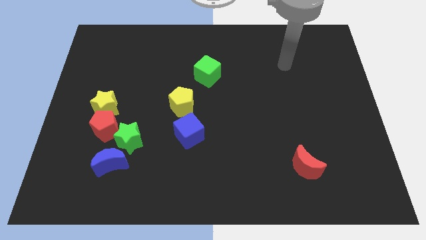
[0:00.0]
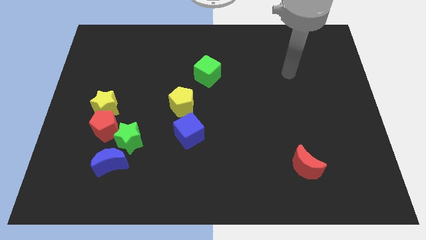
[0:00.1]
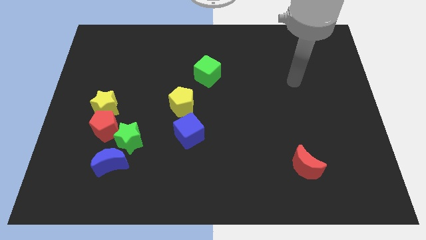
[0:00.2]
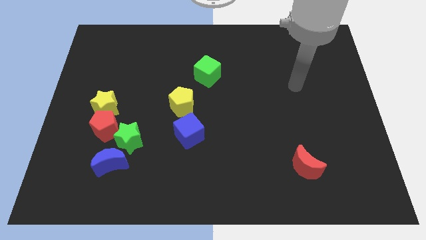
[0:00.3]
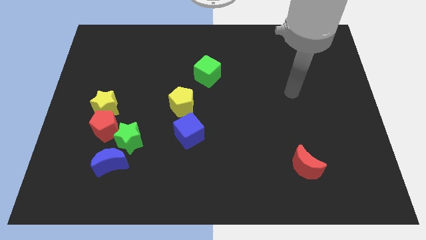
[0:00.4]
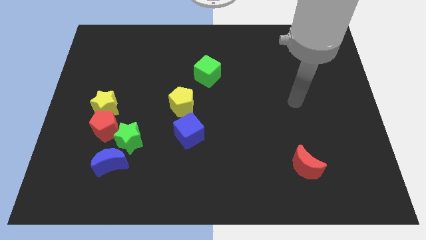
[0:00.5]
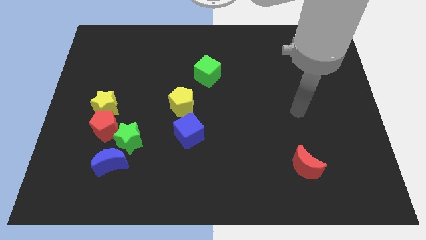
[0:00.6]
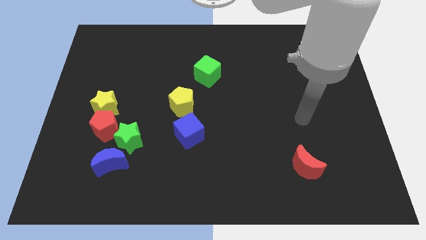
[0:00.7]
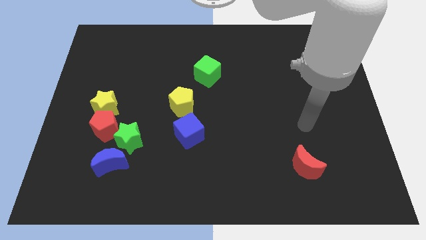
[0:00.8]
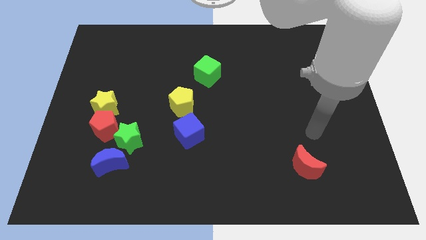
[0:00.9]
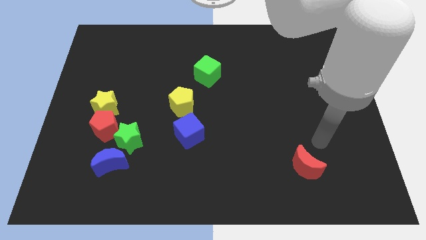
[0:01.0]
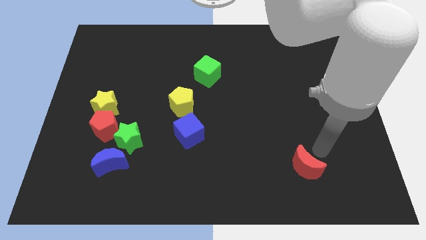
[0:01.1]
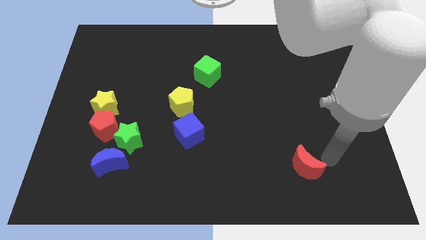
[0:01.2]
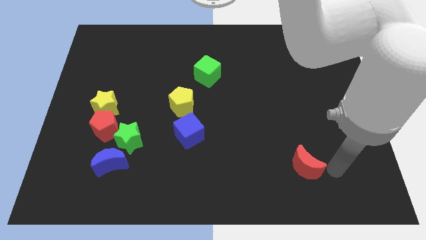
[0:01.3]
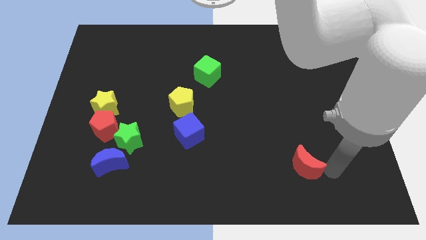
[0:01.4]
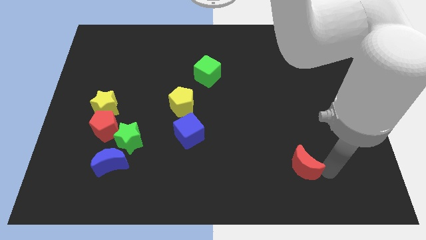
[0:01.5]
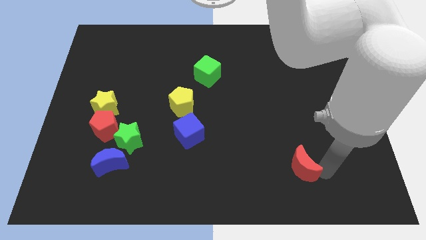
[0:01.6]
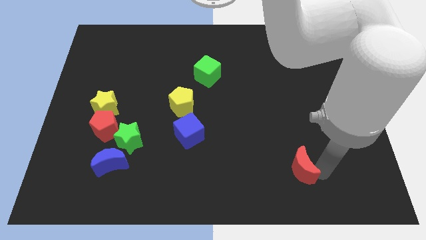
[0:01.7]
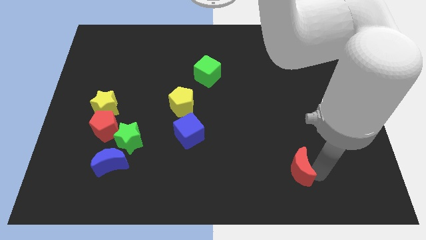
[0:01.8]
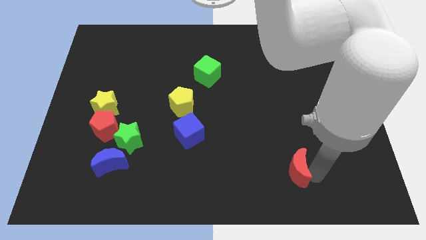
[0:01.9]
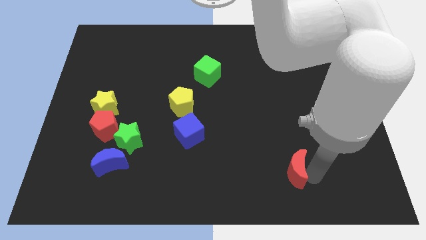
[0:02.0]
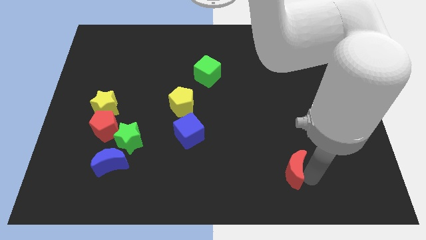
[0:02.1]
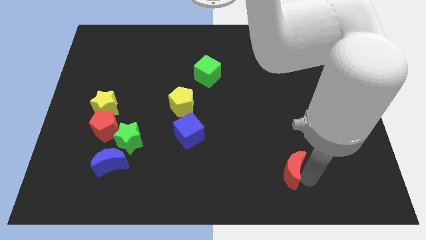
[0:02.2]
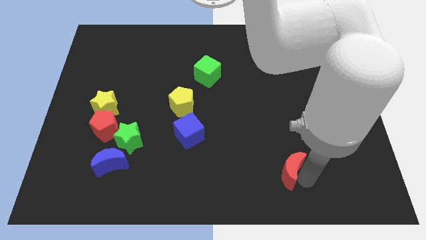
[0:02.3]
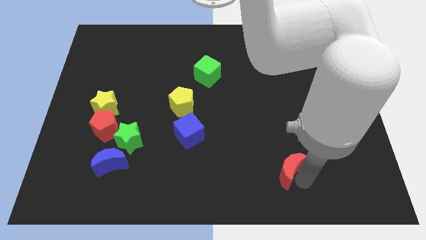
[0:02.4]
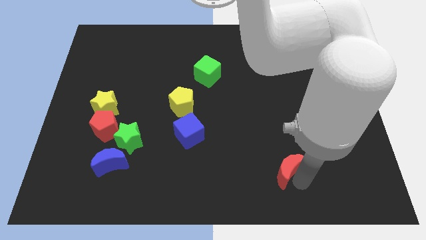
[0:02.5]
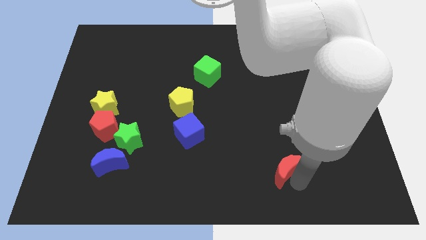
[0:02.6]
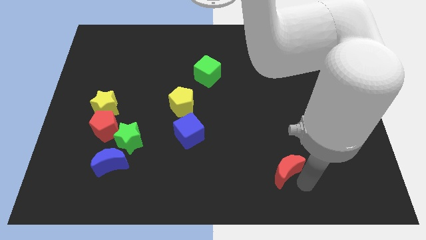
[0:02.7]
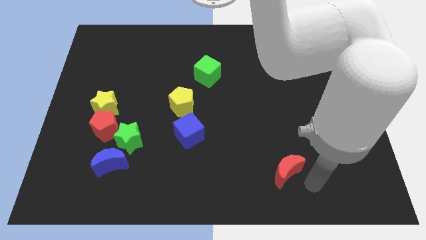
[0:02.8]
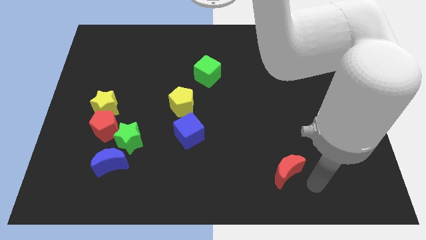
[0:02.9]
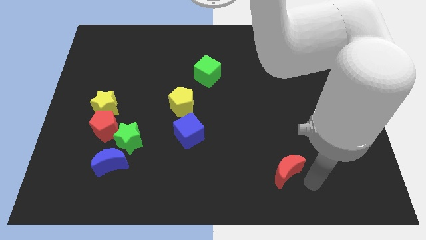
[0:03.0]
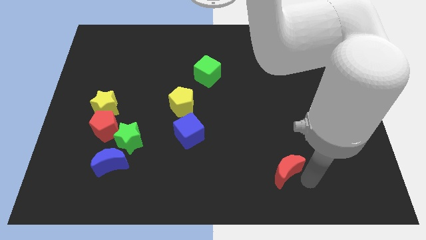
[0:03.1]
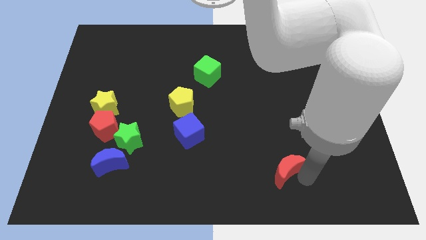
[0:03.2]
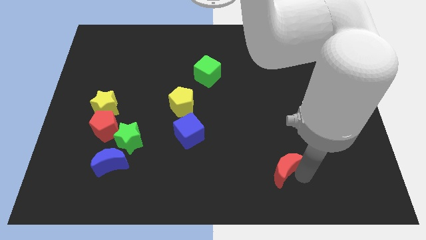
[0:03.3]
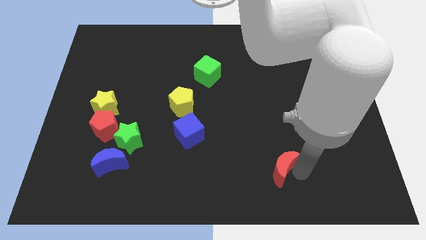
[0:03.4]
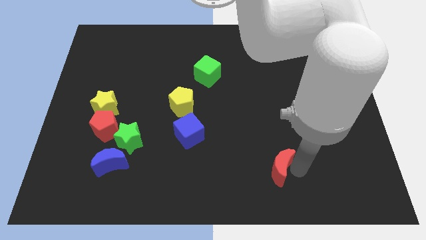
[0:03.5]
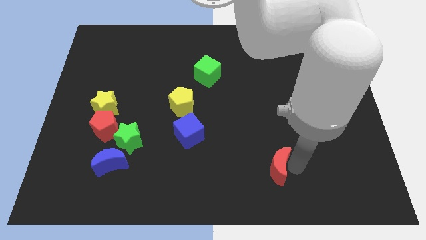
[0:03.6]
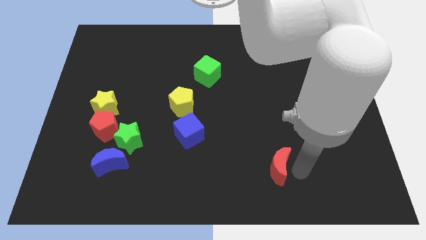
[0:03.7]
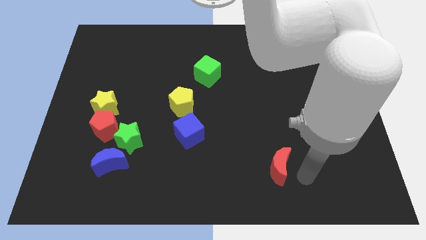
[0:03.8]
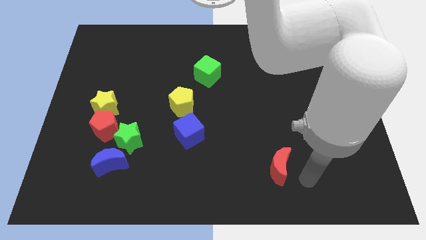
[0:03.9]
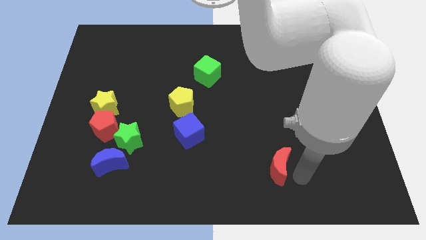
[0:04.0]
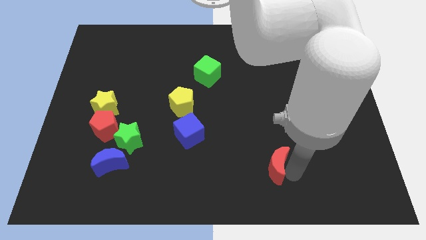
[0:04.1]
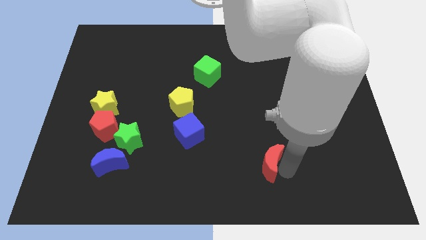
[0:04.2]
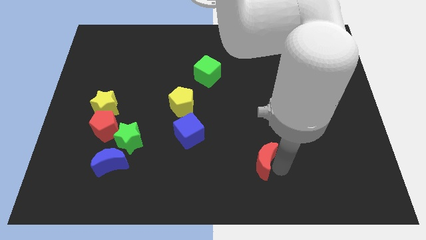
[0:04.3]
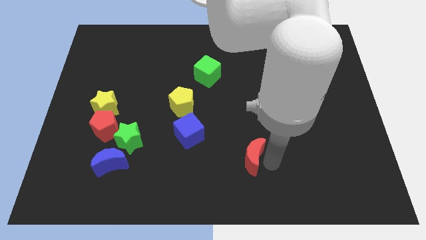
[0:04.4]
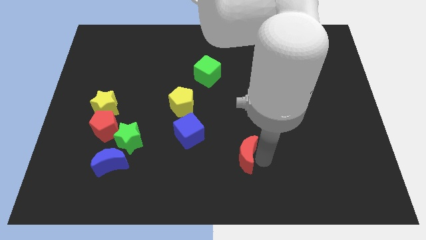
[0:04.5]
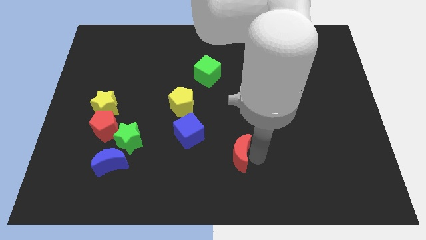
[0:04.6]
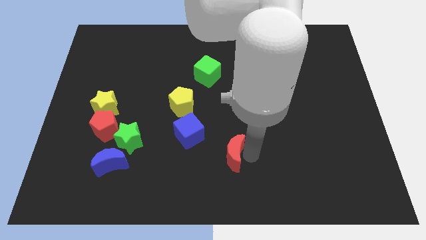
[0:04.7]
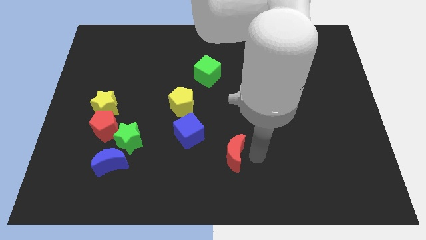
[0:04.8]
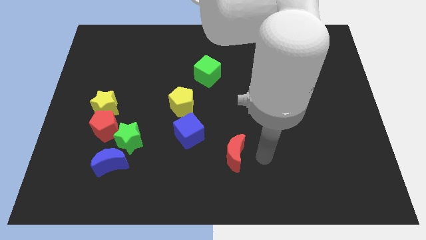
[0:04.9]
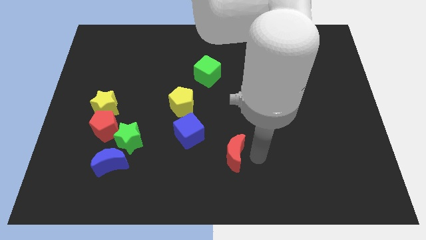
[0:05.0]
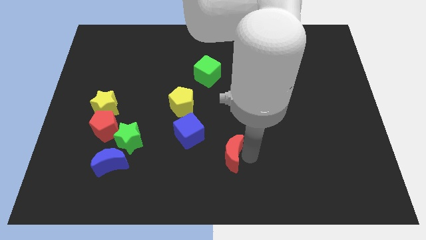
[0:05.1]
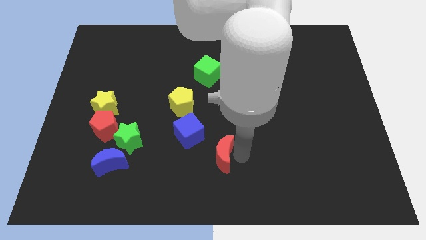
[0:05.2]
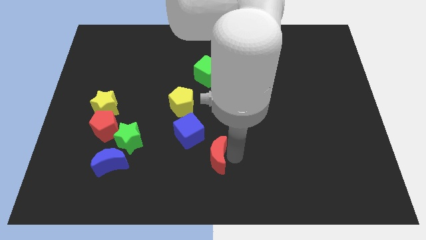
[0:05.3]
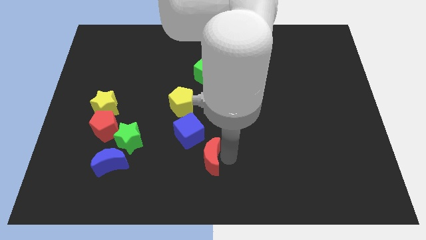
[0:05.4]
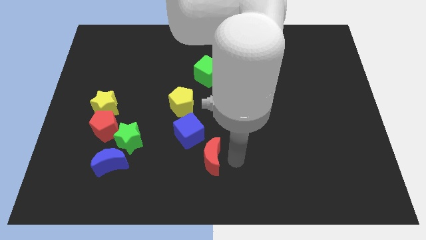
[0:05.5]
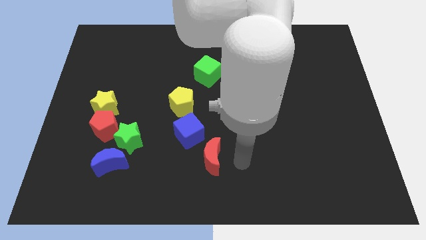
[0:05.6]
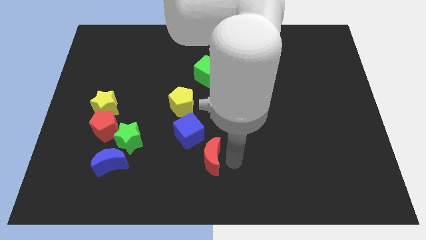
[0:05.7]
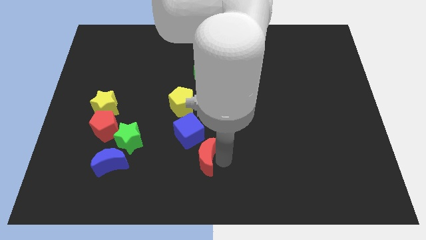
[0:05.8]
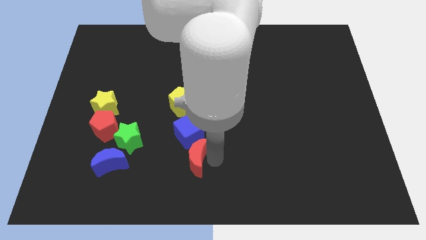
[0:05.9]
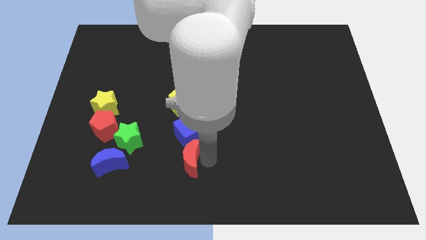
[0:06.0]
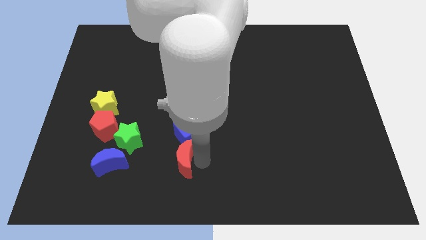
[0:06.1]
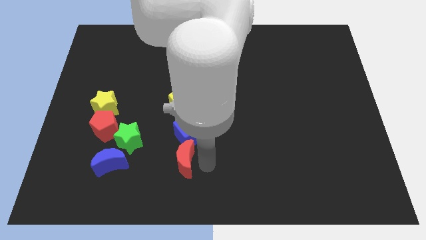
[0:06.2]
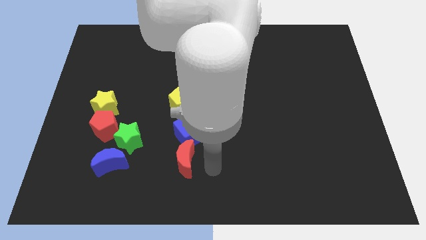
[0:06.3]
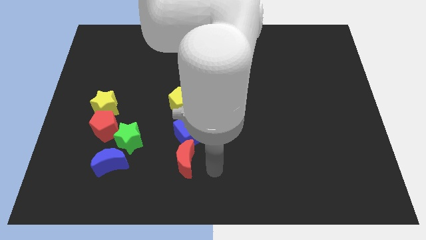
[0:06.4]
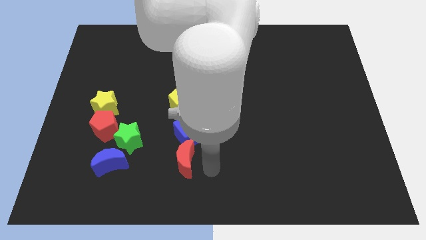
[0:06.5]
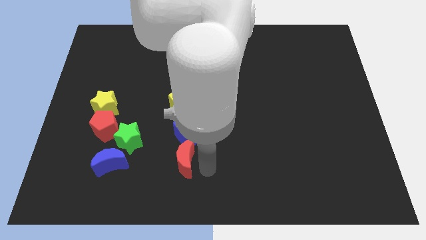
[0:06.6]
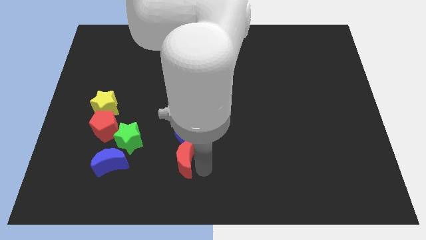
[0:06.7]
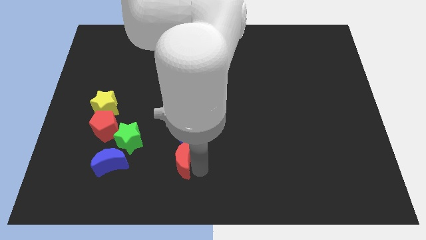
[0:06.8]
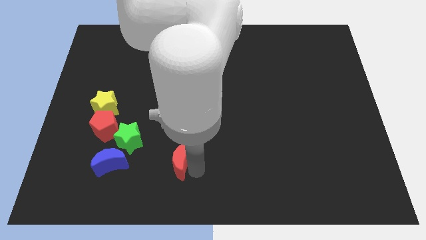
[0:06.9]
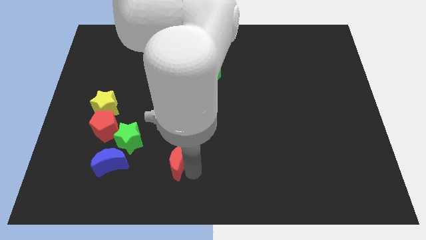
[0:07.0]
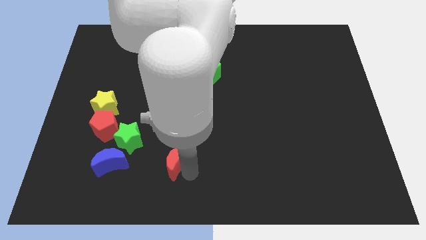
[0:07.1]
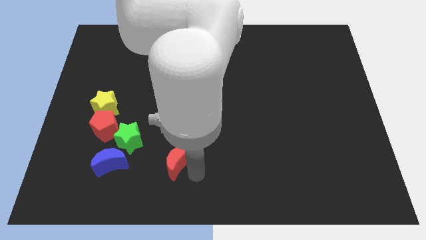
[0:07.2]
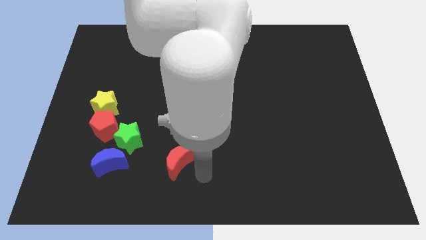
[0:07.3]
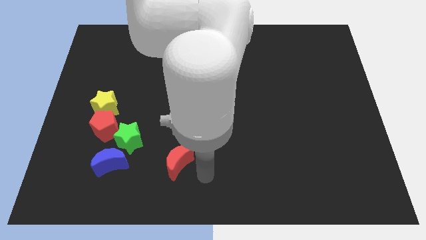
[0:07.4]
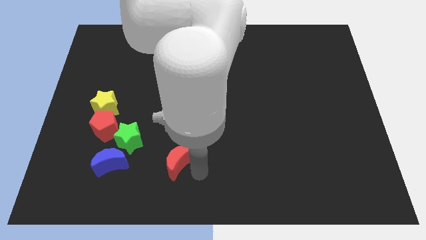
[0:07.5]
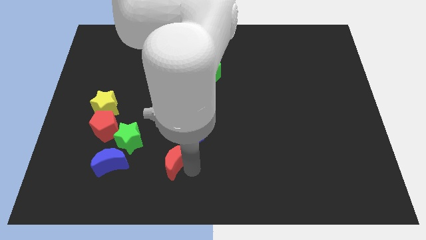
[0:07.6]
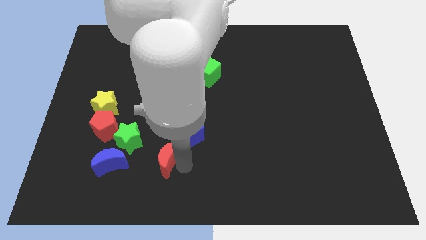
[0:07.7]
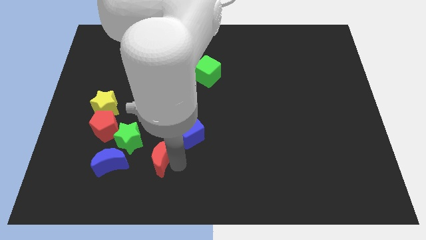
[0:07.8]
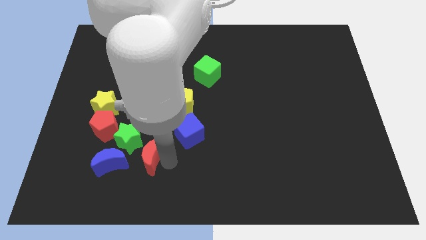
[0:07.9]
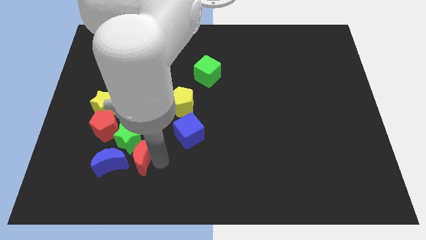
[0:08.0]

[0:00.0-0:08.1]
move the red moon close to the green star
